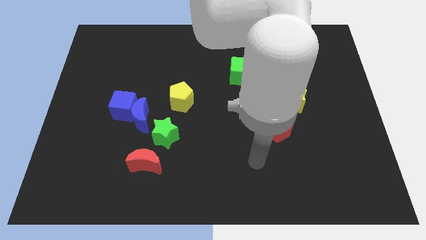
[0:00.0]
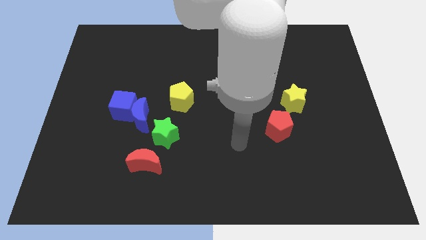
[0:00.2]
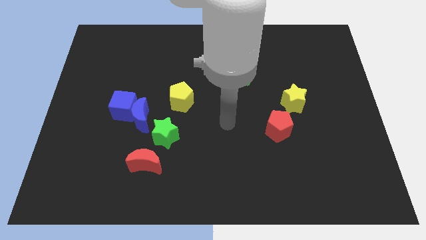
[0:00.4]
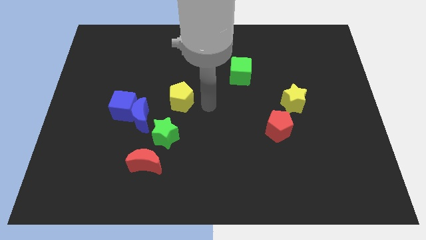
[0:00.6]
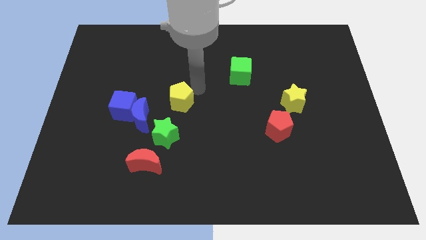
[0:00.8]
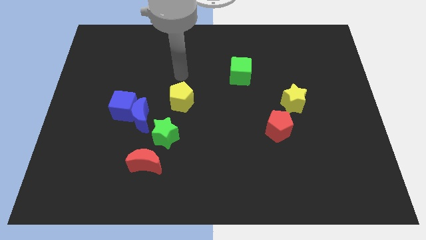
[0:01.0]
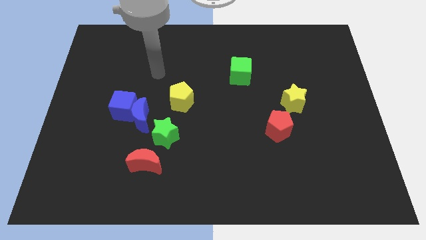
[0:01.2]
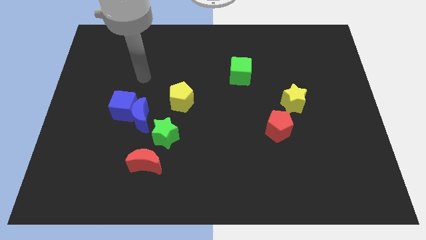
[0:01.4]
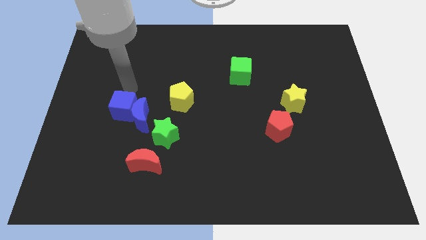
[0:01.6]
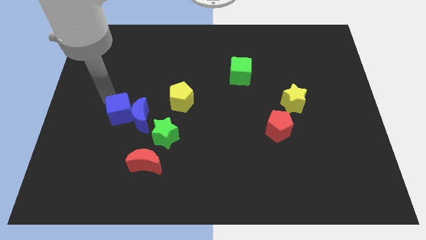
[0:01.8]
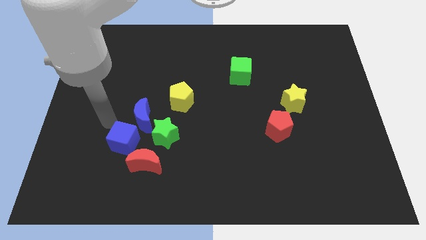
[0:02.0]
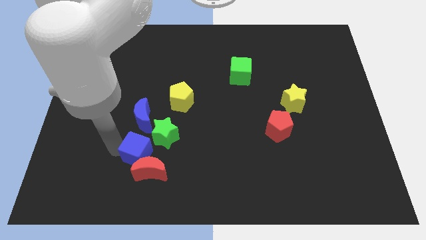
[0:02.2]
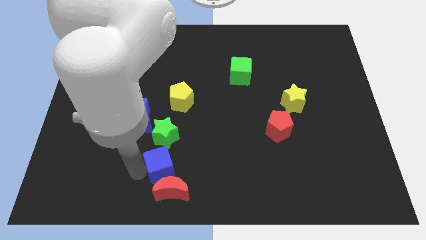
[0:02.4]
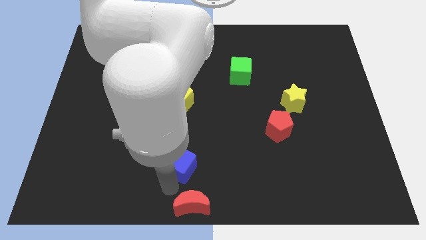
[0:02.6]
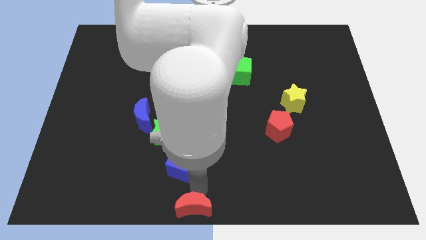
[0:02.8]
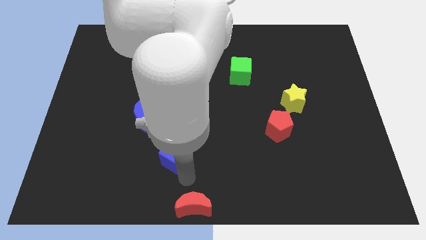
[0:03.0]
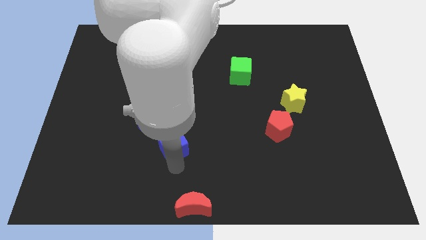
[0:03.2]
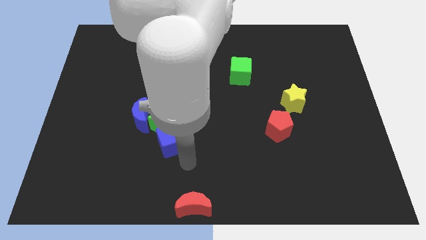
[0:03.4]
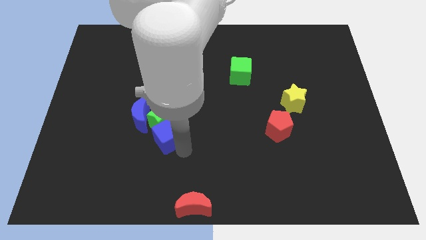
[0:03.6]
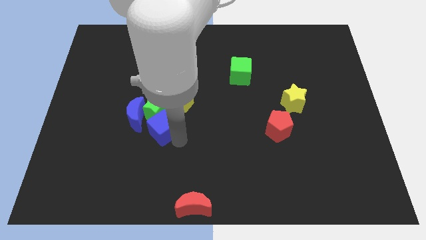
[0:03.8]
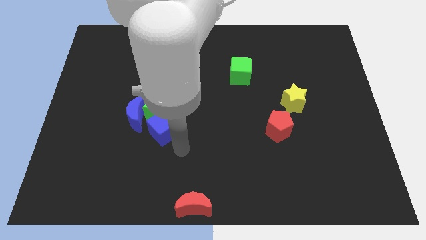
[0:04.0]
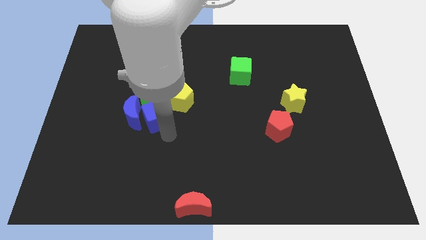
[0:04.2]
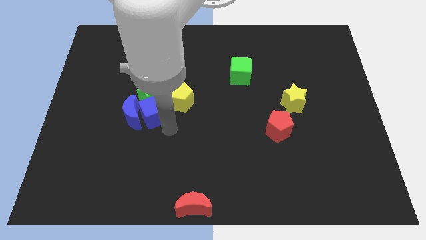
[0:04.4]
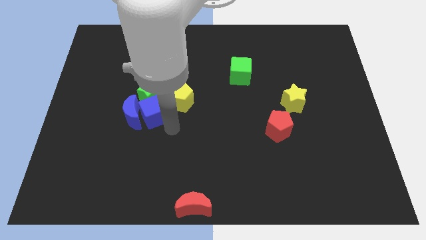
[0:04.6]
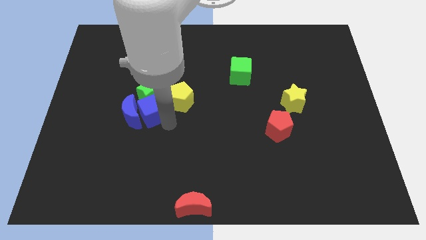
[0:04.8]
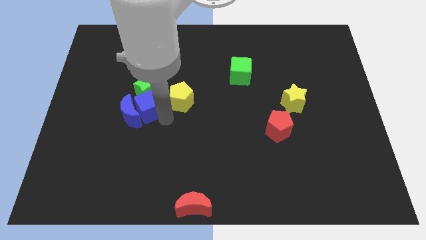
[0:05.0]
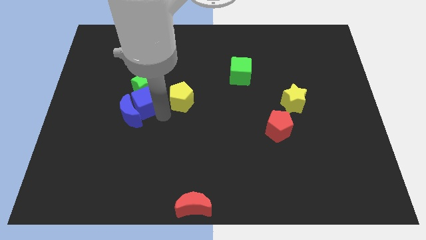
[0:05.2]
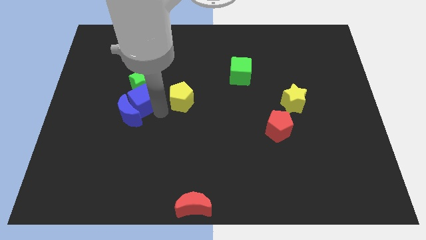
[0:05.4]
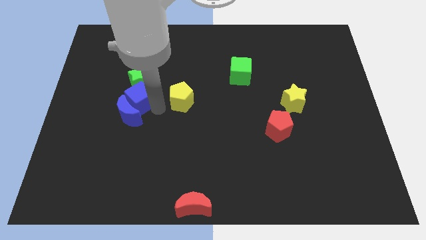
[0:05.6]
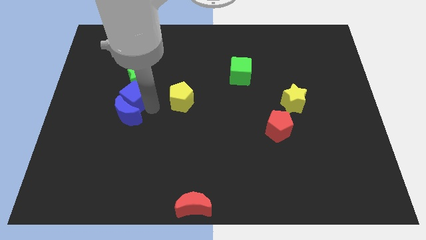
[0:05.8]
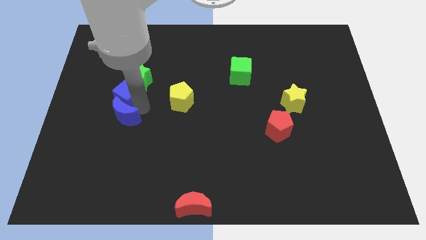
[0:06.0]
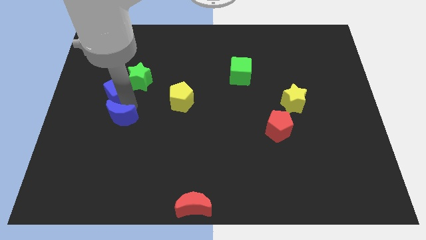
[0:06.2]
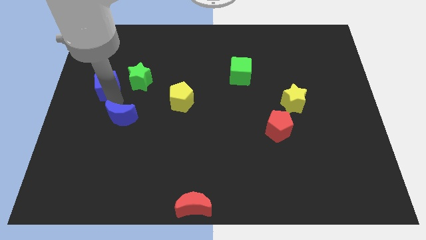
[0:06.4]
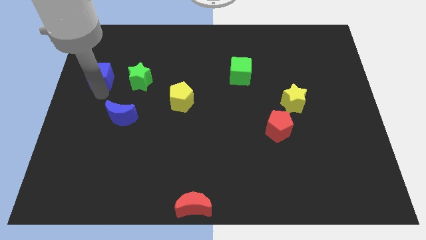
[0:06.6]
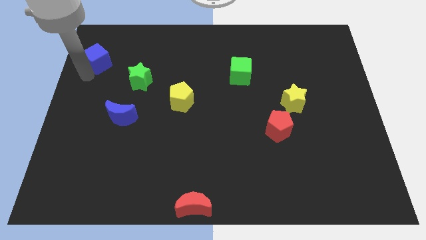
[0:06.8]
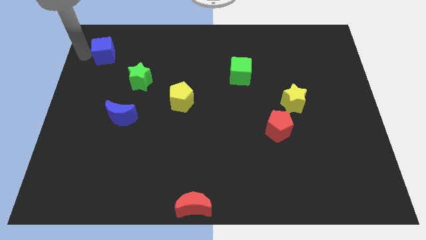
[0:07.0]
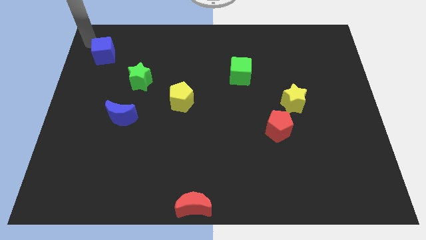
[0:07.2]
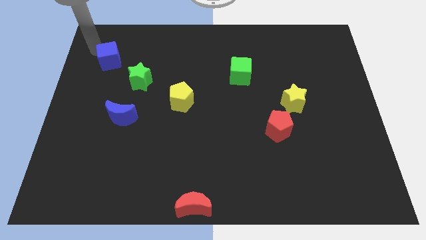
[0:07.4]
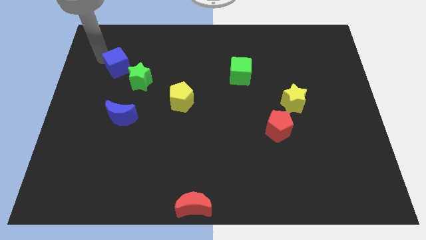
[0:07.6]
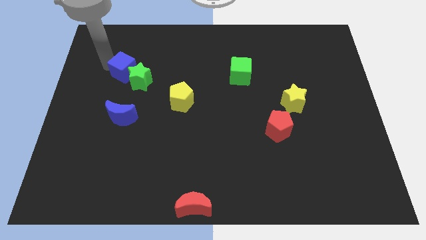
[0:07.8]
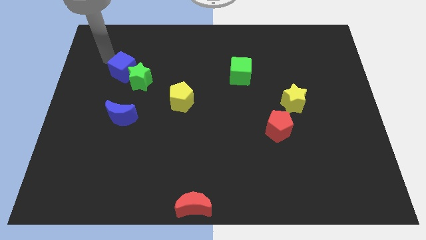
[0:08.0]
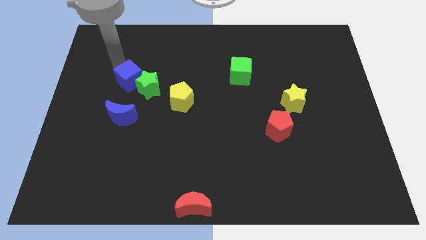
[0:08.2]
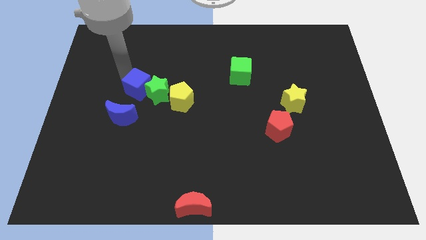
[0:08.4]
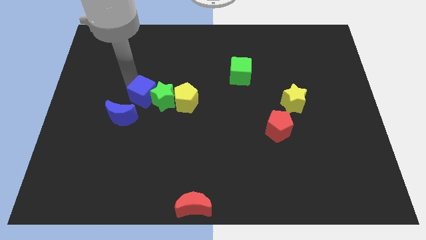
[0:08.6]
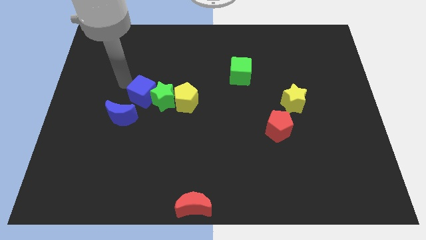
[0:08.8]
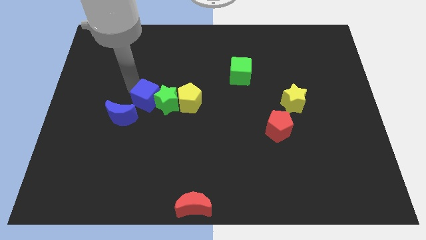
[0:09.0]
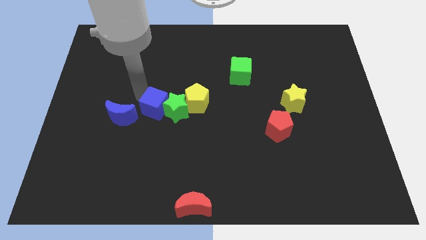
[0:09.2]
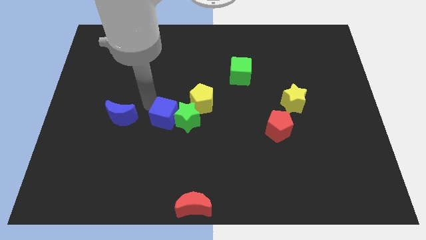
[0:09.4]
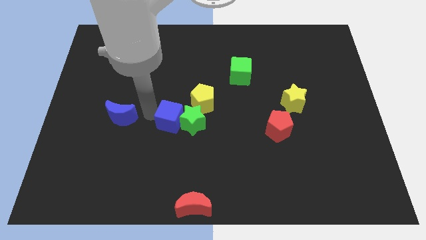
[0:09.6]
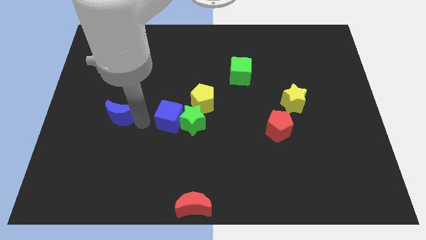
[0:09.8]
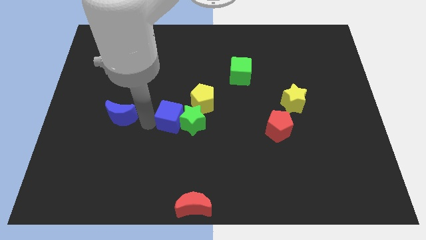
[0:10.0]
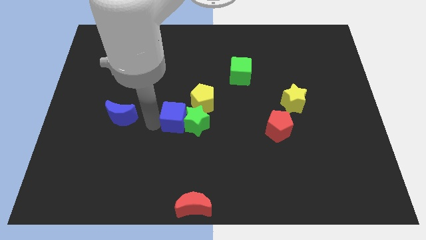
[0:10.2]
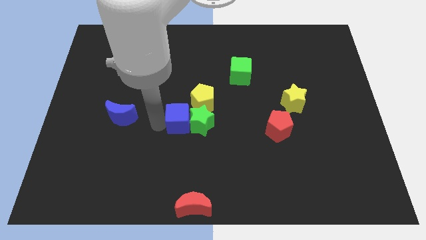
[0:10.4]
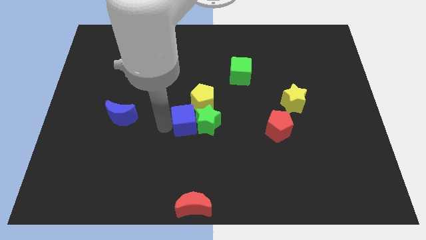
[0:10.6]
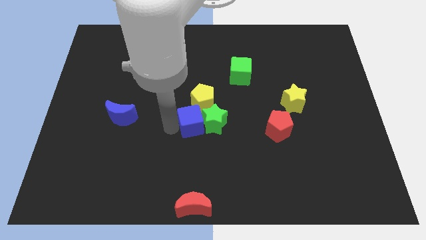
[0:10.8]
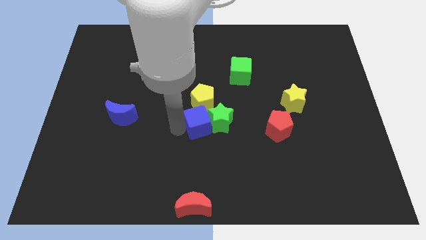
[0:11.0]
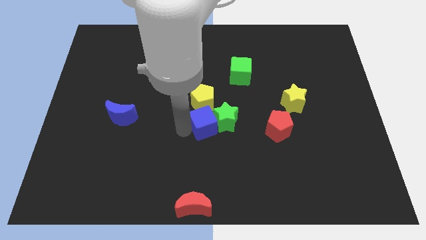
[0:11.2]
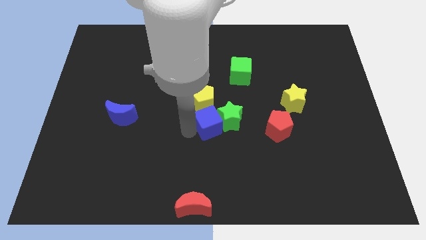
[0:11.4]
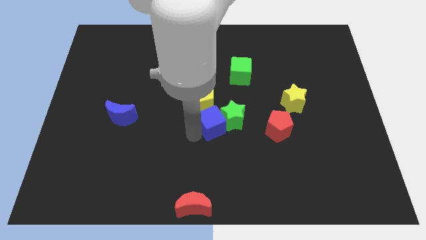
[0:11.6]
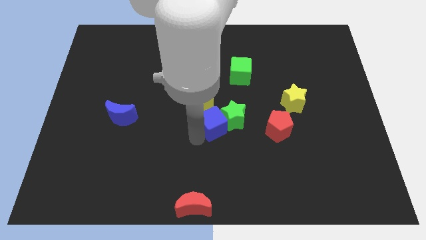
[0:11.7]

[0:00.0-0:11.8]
move the blue cube to the right

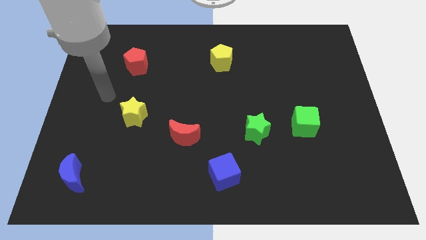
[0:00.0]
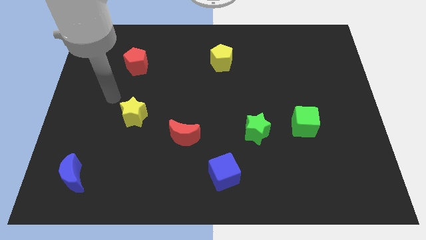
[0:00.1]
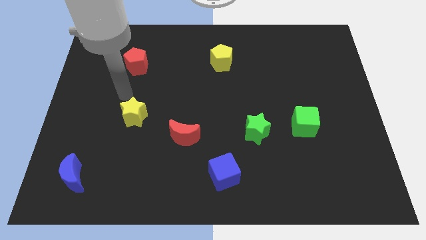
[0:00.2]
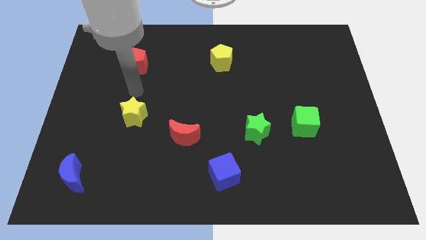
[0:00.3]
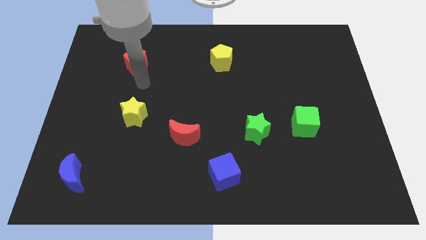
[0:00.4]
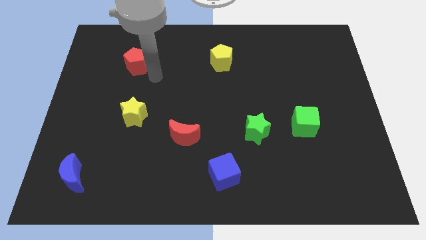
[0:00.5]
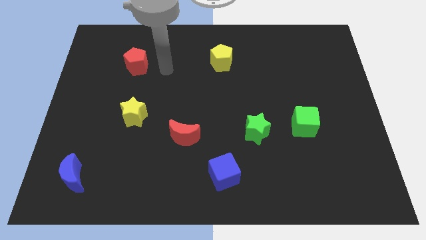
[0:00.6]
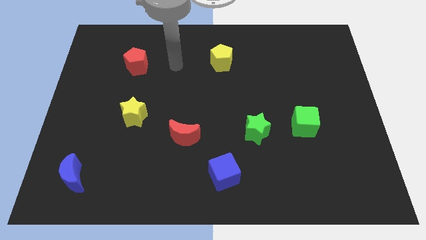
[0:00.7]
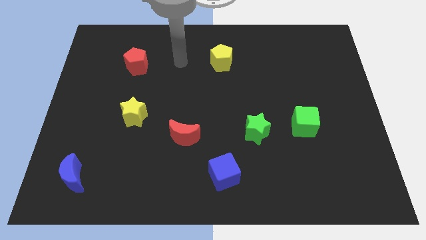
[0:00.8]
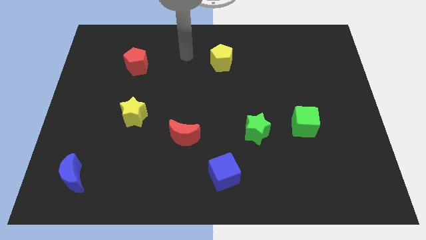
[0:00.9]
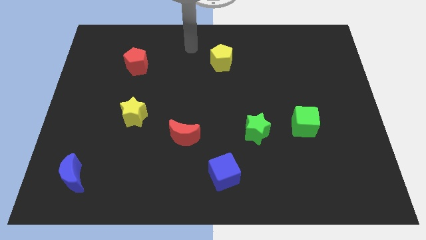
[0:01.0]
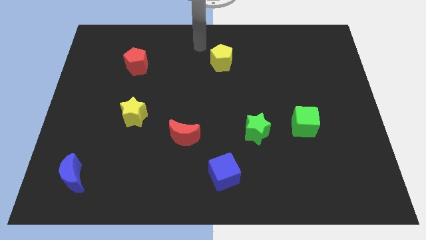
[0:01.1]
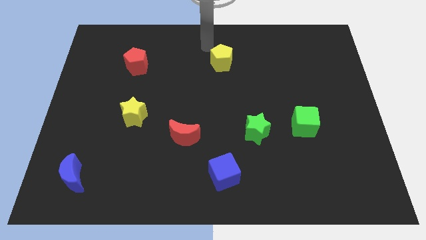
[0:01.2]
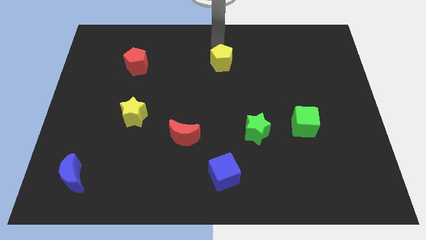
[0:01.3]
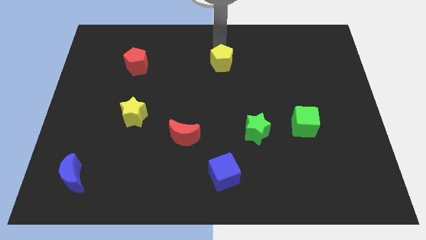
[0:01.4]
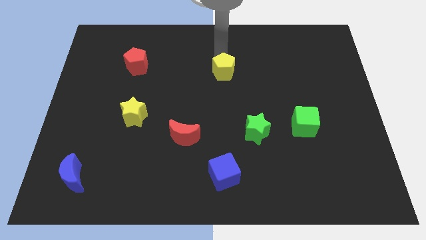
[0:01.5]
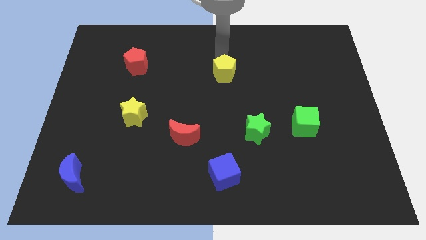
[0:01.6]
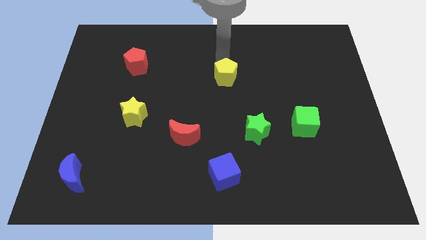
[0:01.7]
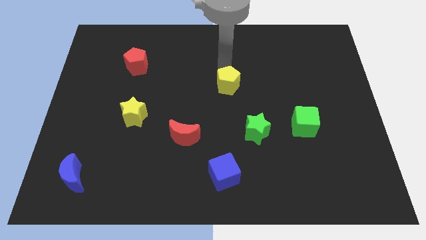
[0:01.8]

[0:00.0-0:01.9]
slightly slide the yellow pentagon down

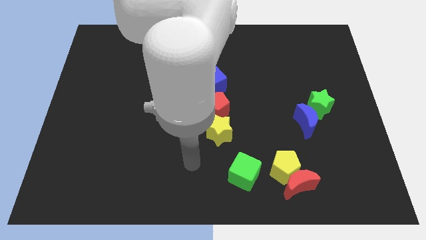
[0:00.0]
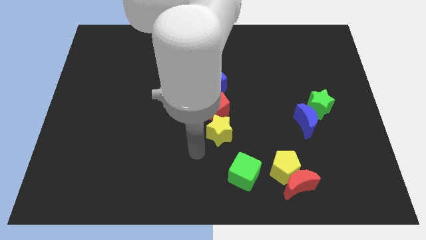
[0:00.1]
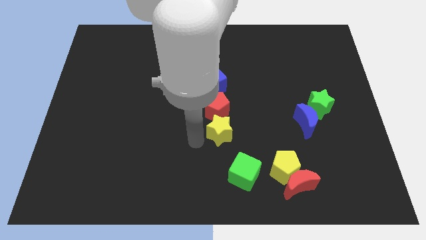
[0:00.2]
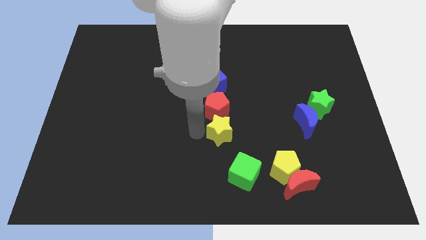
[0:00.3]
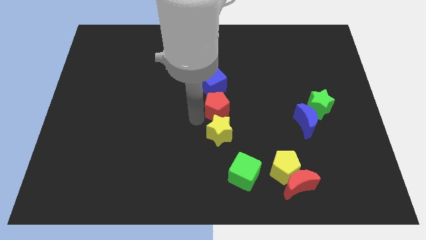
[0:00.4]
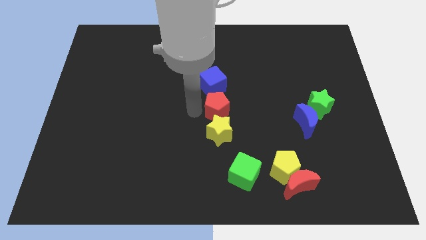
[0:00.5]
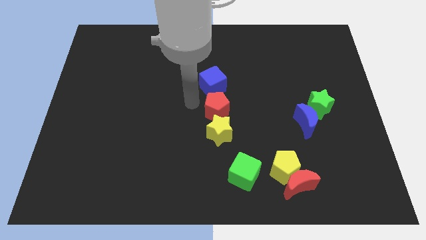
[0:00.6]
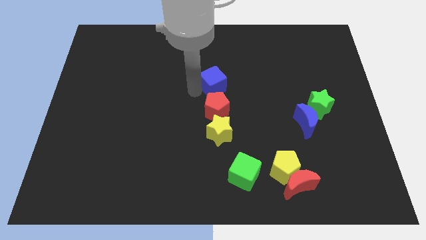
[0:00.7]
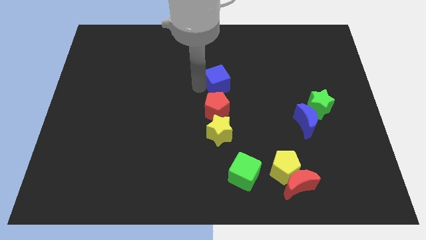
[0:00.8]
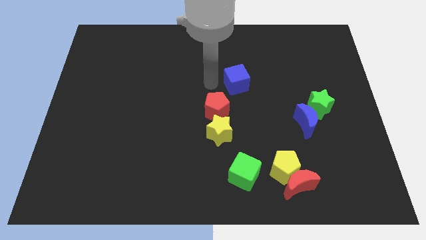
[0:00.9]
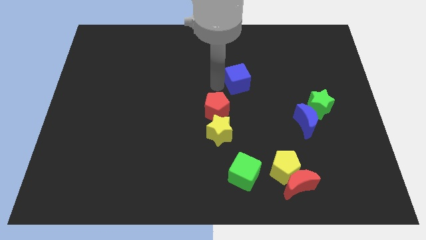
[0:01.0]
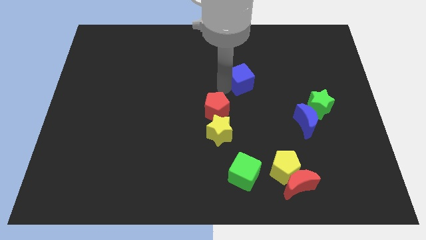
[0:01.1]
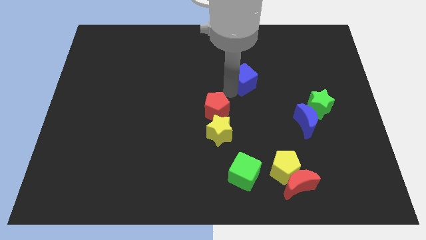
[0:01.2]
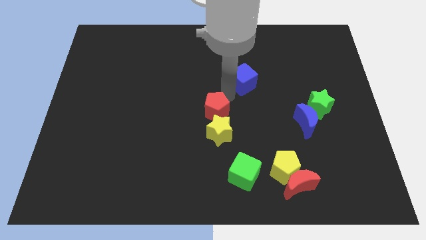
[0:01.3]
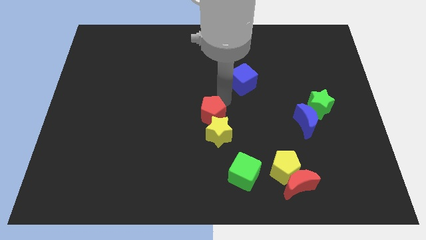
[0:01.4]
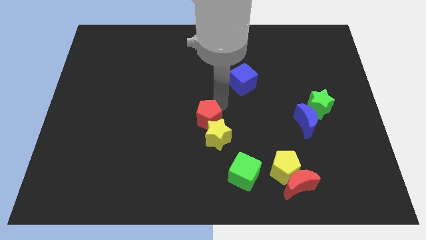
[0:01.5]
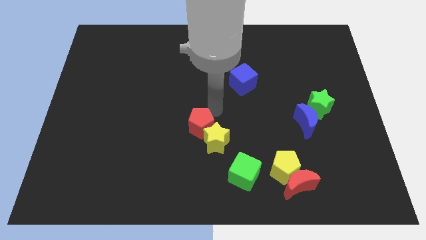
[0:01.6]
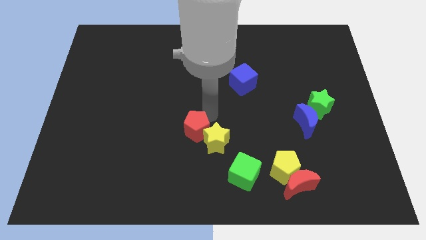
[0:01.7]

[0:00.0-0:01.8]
slightly slide the red pentagon down and left diagonally
